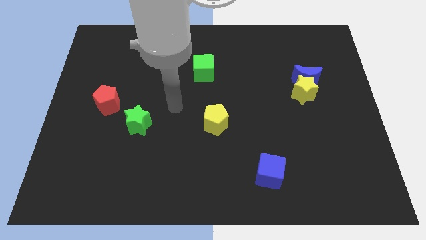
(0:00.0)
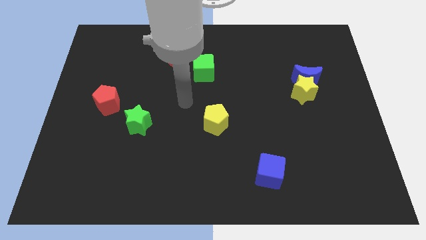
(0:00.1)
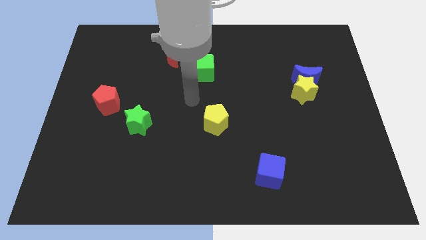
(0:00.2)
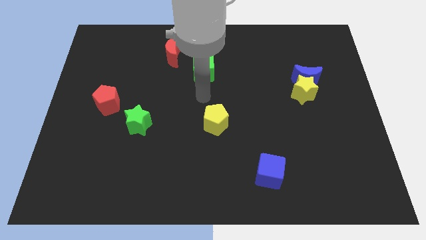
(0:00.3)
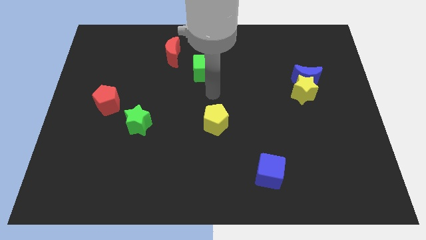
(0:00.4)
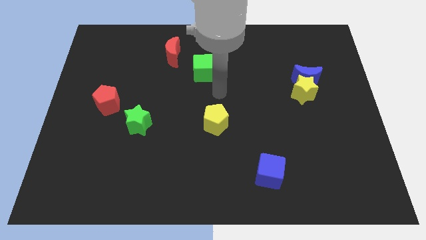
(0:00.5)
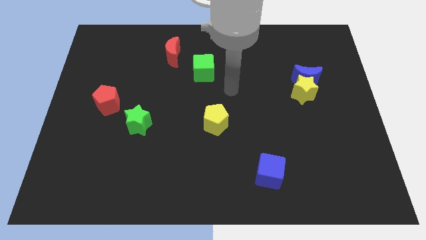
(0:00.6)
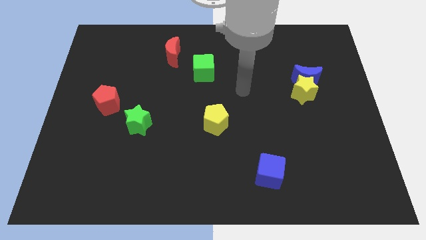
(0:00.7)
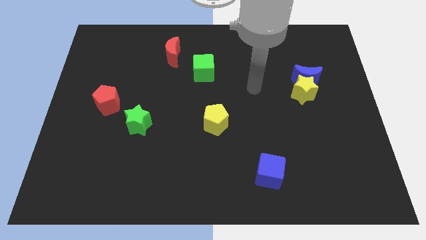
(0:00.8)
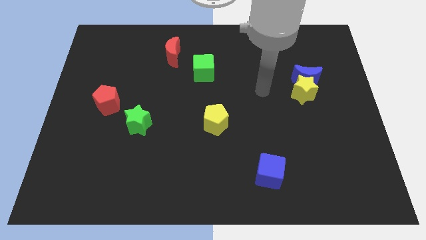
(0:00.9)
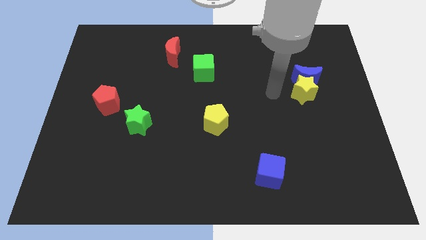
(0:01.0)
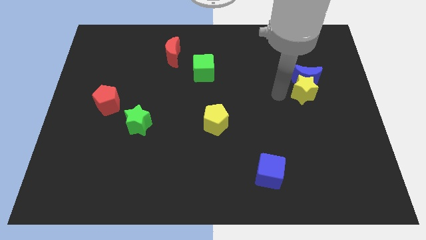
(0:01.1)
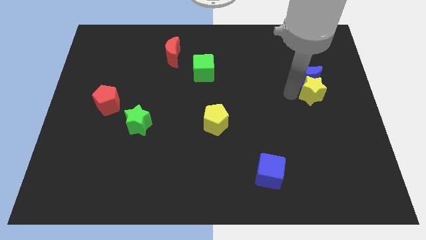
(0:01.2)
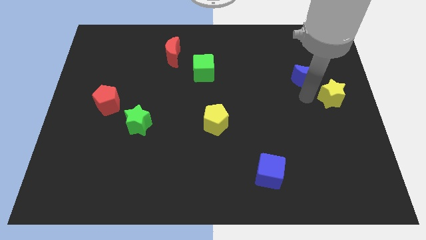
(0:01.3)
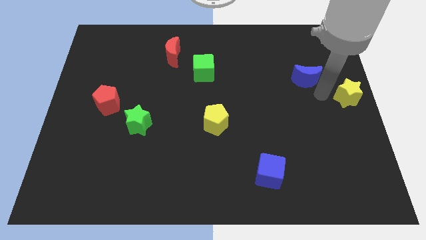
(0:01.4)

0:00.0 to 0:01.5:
separate the blue moon from the yellow star

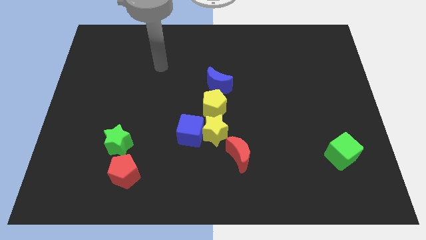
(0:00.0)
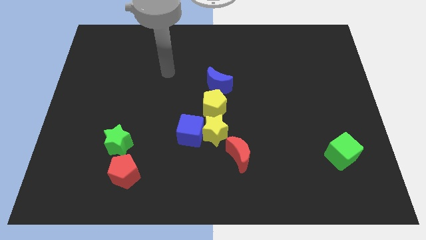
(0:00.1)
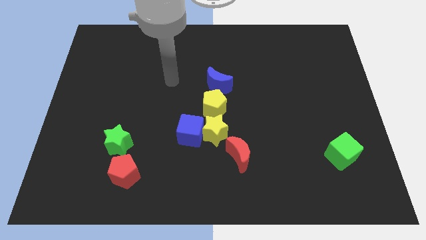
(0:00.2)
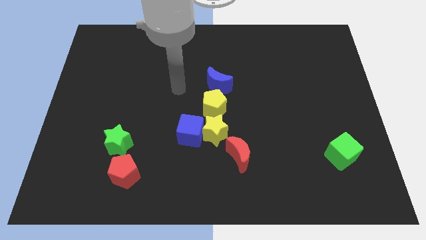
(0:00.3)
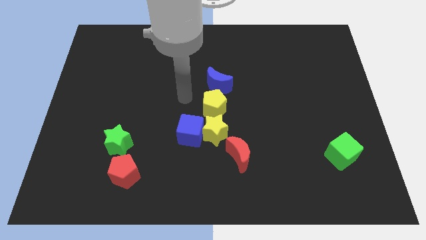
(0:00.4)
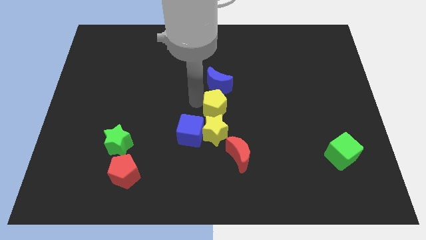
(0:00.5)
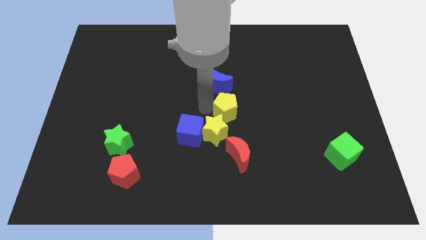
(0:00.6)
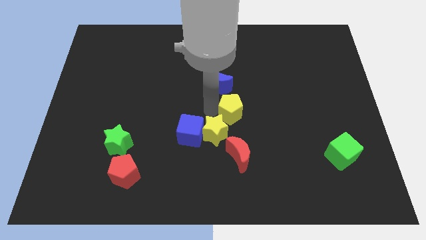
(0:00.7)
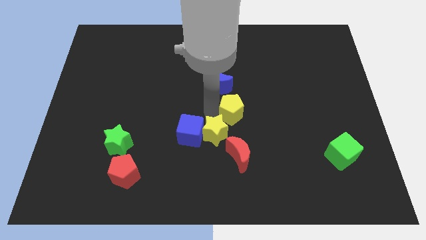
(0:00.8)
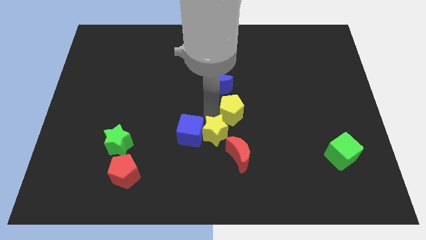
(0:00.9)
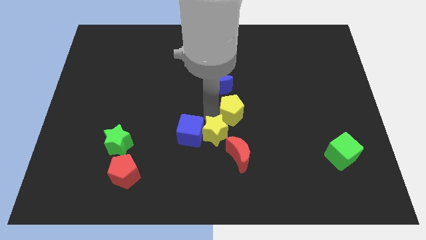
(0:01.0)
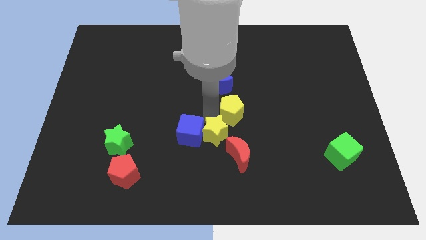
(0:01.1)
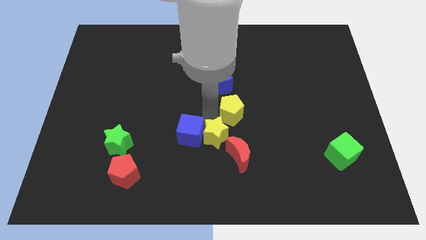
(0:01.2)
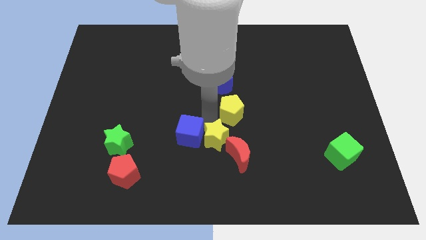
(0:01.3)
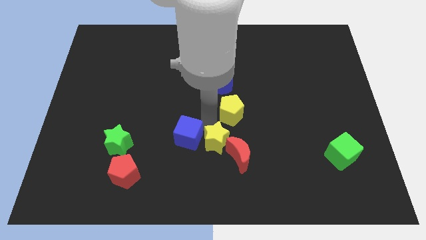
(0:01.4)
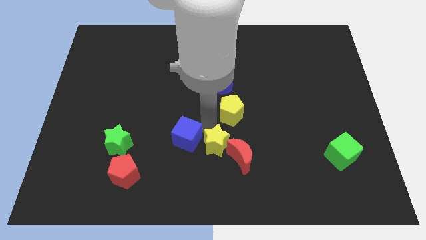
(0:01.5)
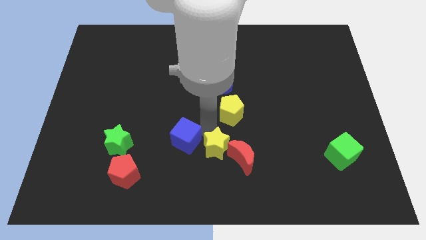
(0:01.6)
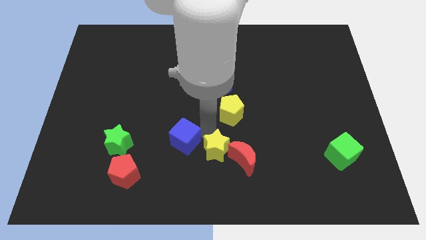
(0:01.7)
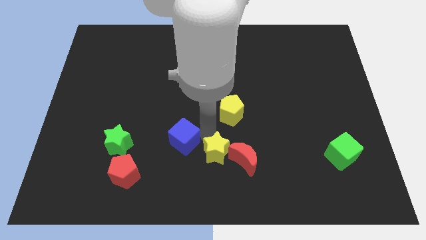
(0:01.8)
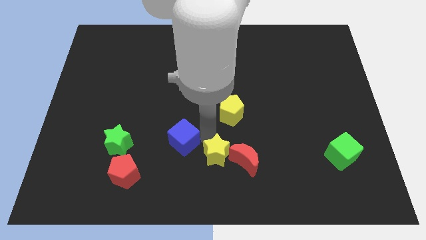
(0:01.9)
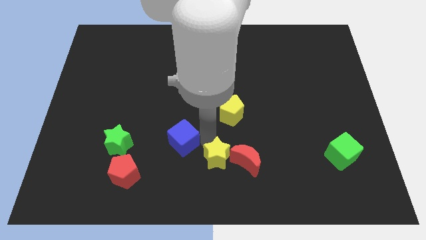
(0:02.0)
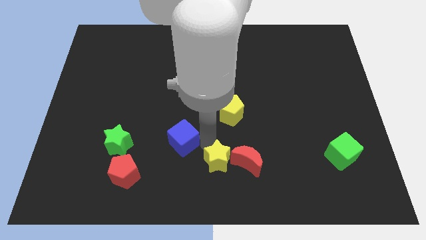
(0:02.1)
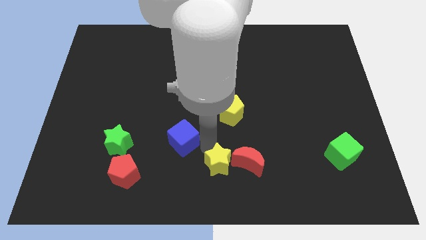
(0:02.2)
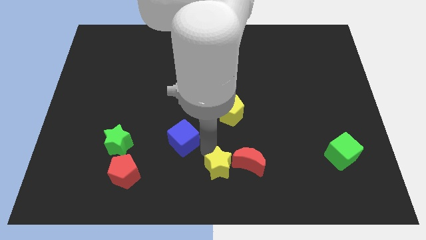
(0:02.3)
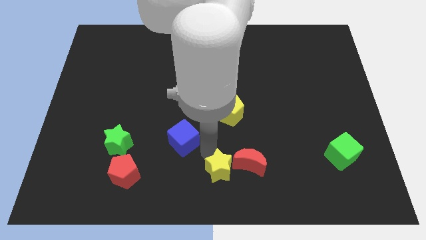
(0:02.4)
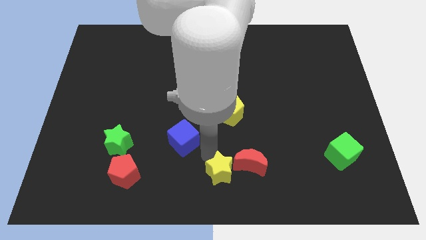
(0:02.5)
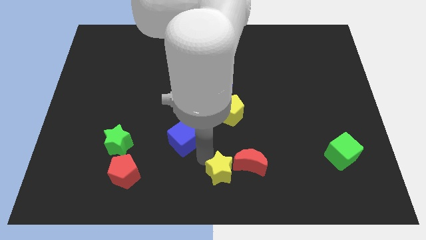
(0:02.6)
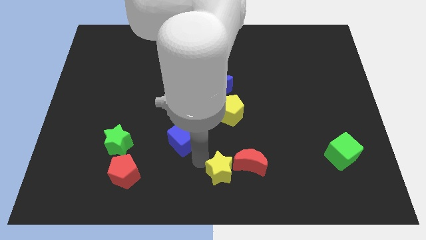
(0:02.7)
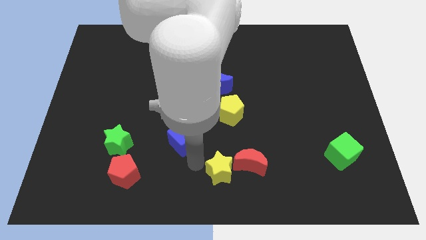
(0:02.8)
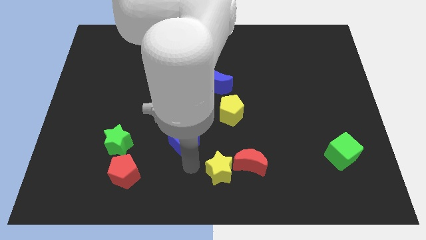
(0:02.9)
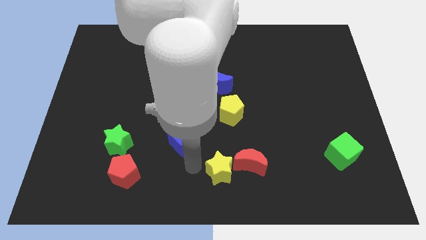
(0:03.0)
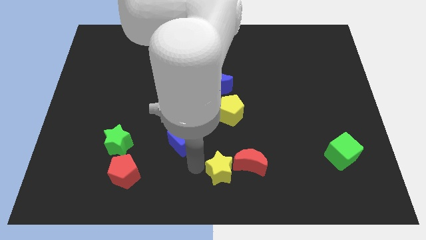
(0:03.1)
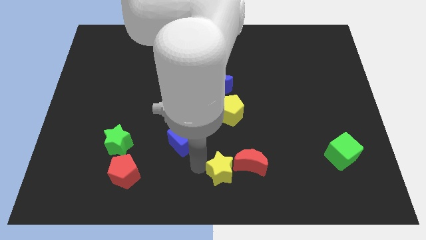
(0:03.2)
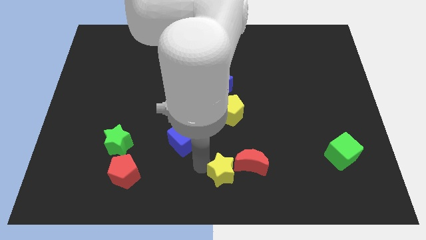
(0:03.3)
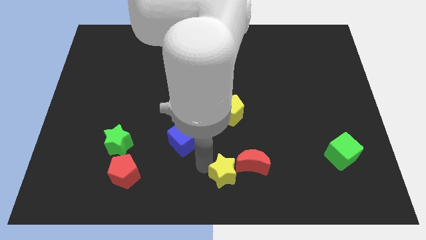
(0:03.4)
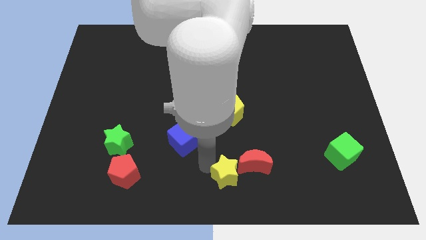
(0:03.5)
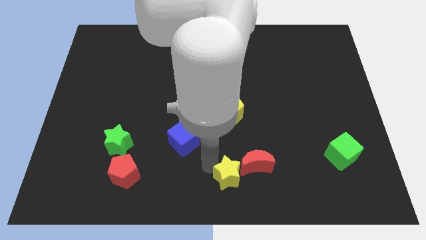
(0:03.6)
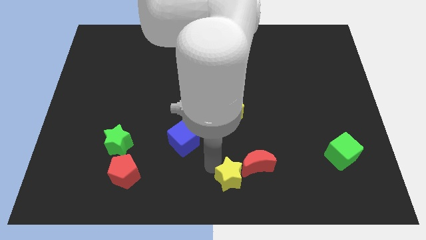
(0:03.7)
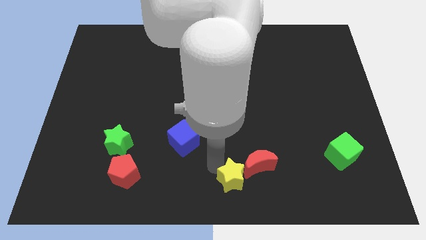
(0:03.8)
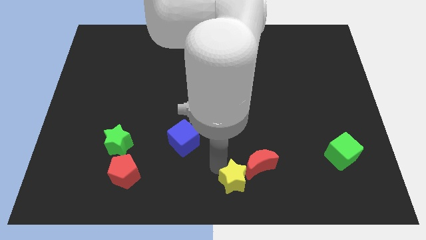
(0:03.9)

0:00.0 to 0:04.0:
separate the yellow star from the blue cube, yellow pentagon, and red moon

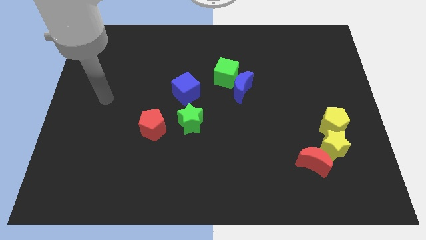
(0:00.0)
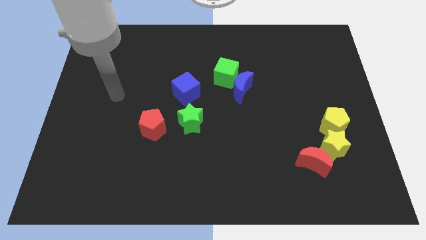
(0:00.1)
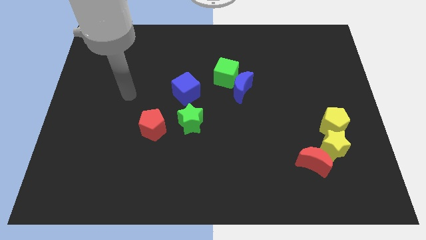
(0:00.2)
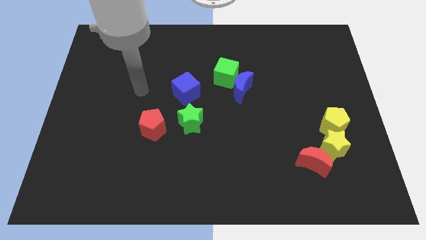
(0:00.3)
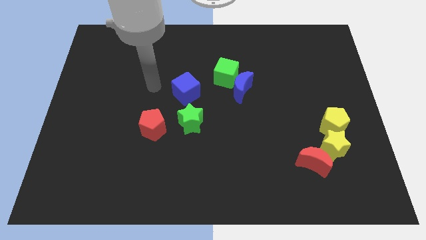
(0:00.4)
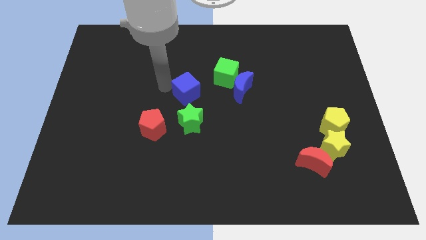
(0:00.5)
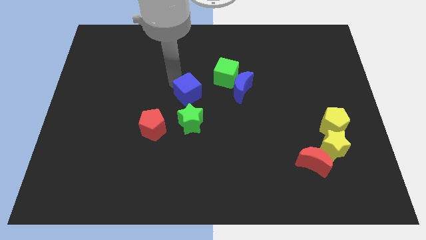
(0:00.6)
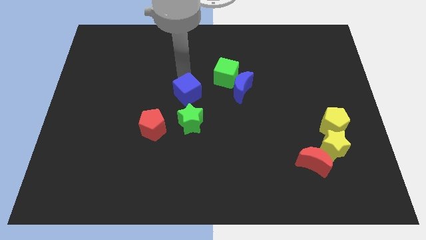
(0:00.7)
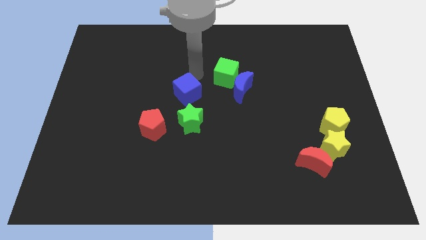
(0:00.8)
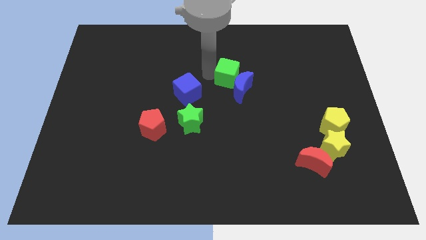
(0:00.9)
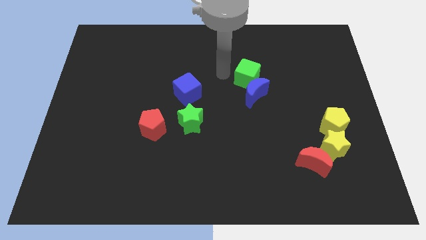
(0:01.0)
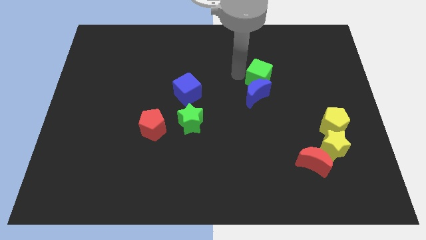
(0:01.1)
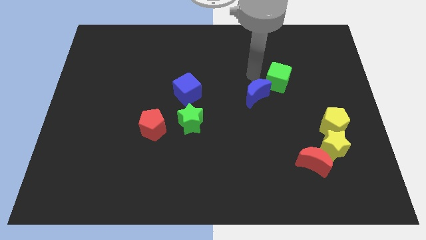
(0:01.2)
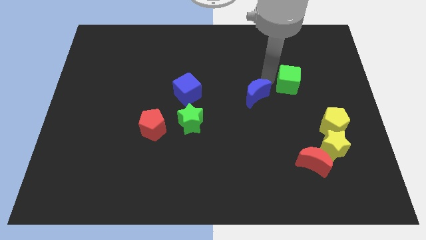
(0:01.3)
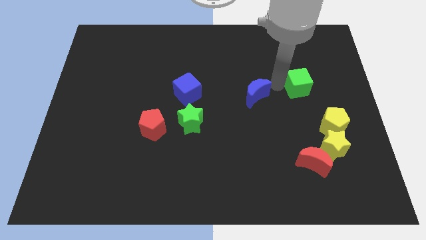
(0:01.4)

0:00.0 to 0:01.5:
pull the blue moon apart from the green cube

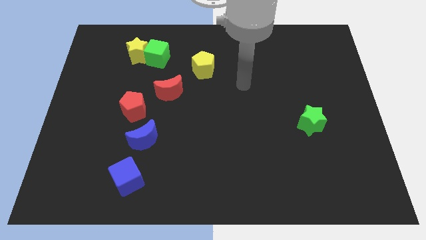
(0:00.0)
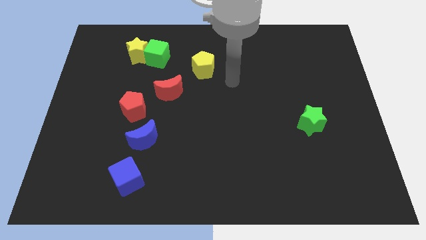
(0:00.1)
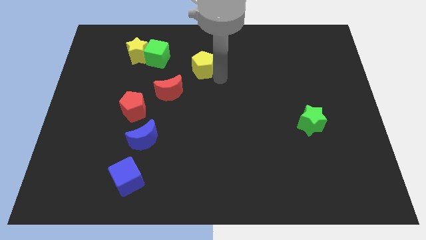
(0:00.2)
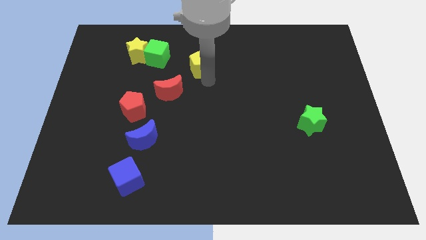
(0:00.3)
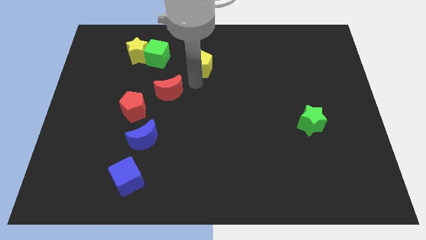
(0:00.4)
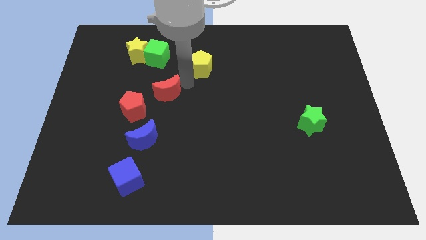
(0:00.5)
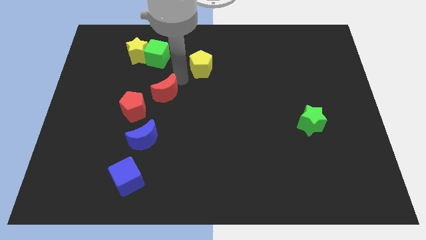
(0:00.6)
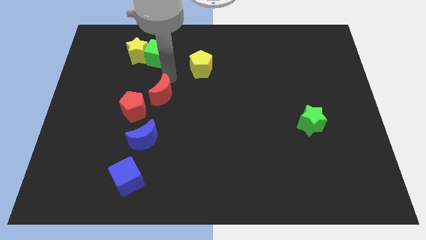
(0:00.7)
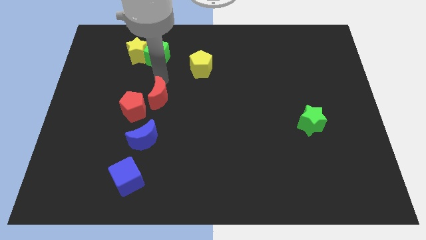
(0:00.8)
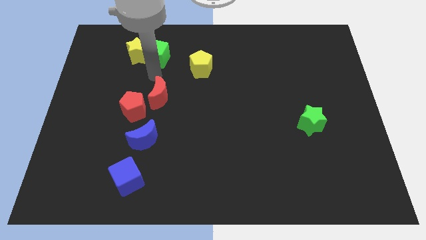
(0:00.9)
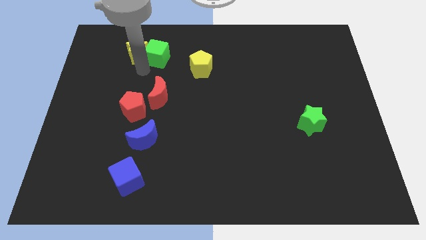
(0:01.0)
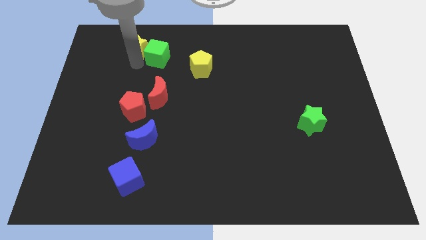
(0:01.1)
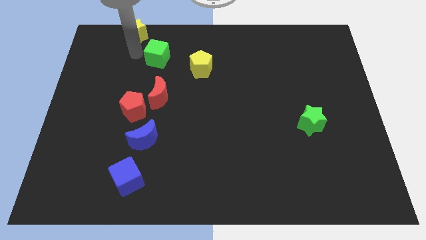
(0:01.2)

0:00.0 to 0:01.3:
pull the green cube apart from the yellow star

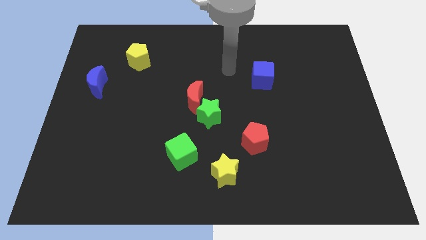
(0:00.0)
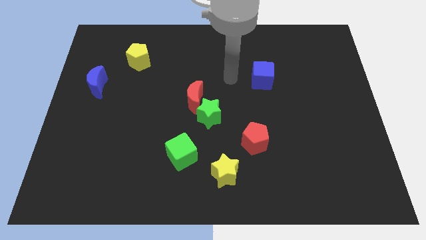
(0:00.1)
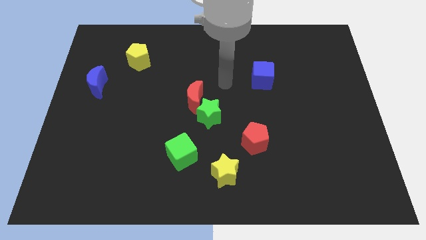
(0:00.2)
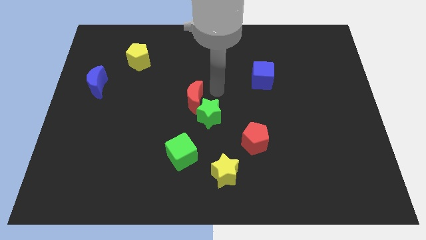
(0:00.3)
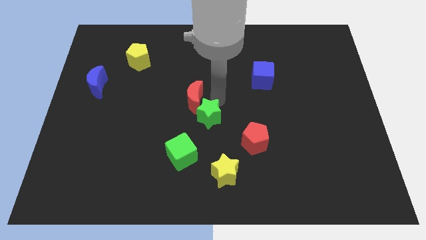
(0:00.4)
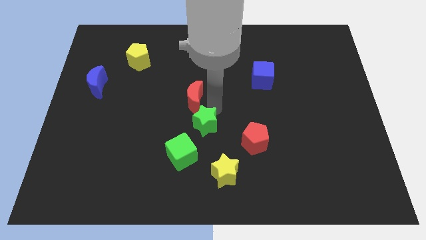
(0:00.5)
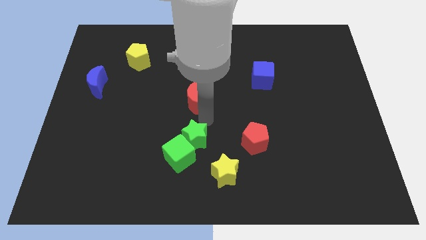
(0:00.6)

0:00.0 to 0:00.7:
pull the red moon apart from the green star

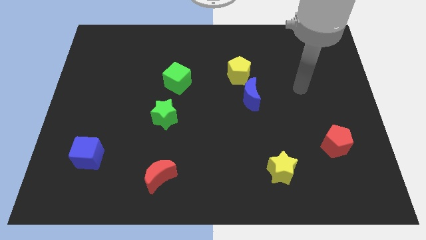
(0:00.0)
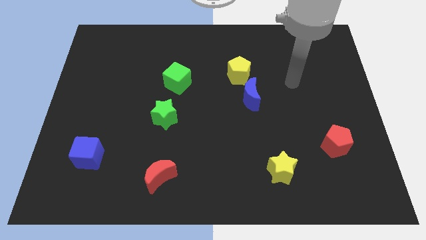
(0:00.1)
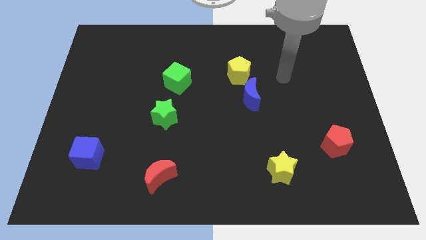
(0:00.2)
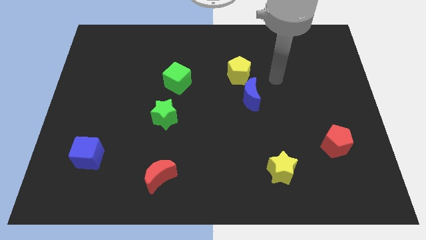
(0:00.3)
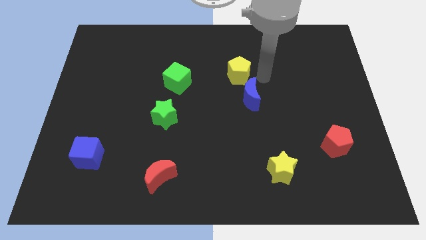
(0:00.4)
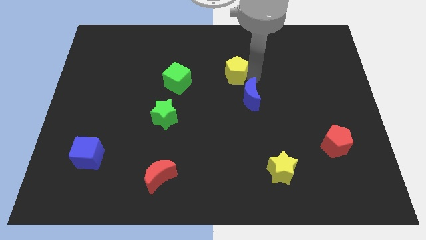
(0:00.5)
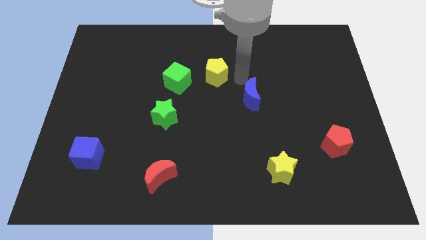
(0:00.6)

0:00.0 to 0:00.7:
separate the blue moon from the yellow pentagon
